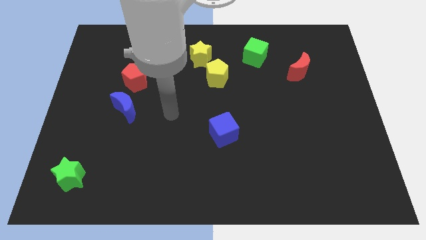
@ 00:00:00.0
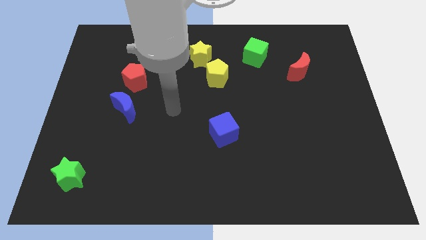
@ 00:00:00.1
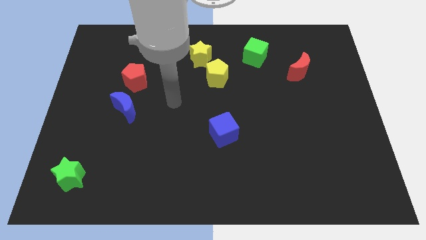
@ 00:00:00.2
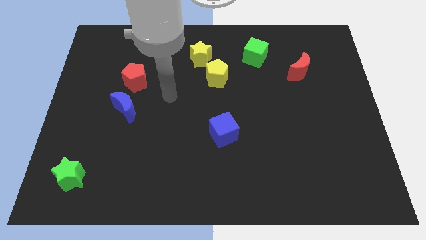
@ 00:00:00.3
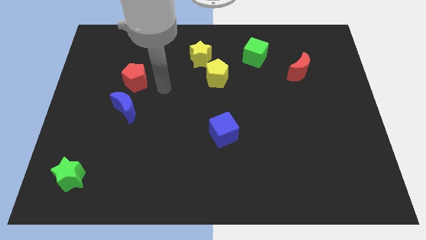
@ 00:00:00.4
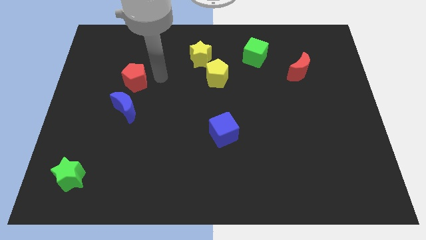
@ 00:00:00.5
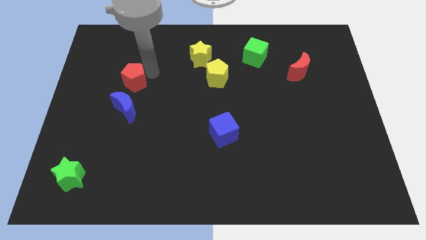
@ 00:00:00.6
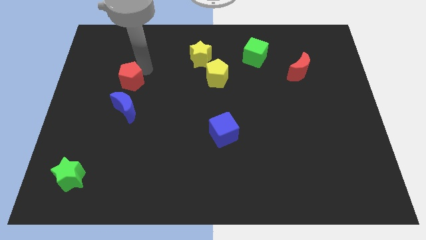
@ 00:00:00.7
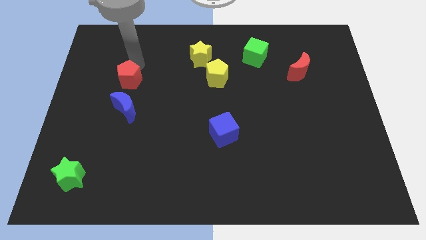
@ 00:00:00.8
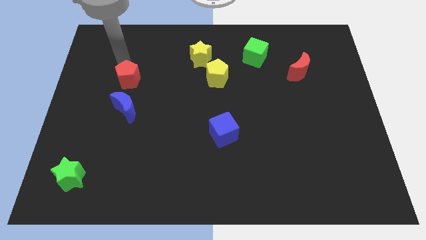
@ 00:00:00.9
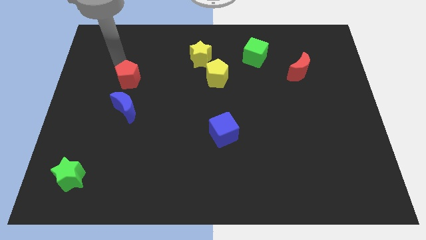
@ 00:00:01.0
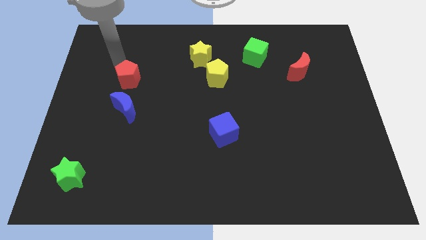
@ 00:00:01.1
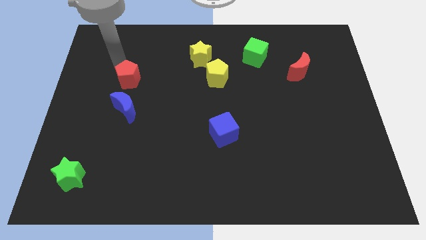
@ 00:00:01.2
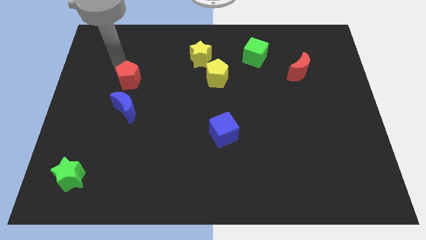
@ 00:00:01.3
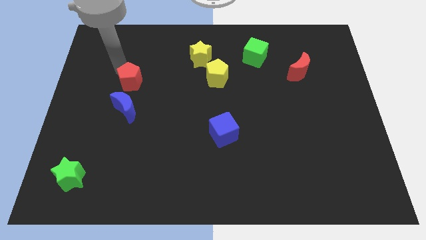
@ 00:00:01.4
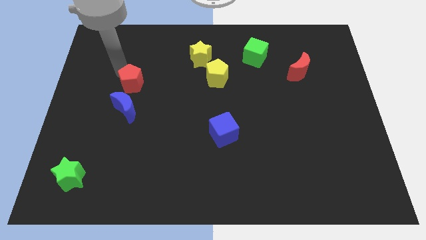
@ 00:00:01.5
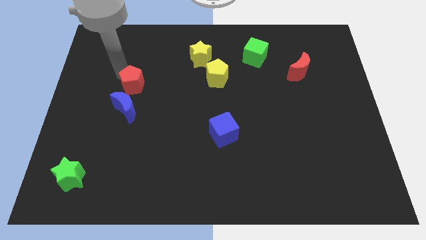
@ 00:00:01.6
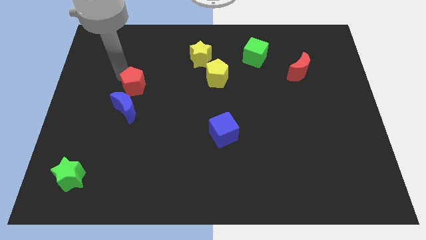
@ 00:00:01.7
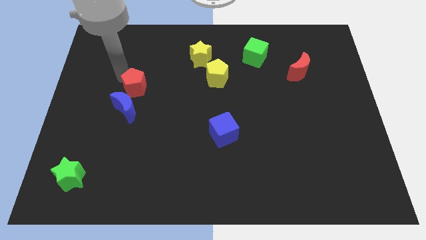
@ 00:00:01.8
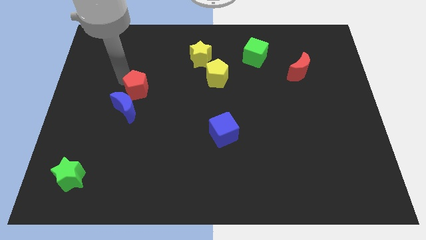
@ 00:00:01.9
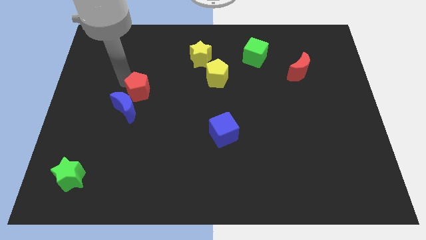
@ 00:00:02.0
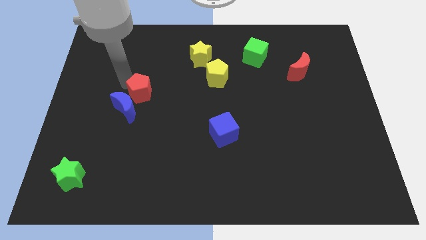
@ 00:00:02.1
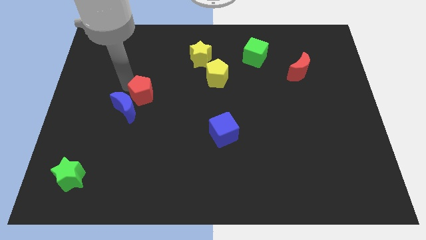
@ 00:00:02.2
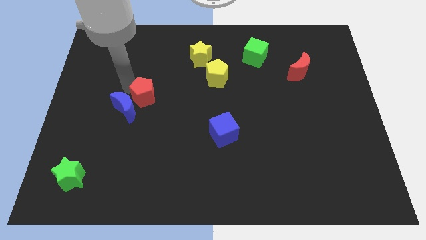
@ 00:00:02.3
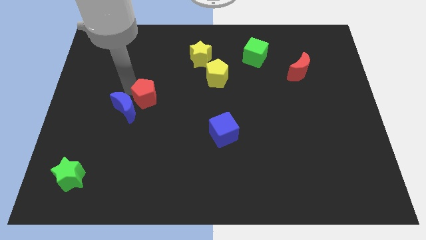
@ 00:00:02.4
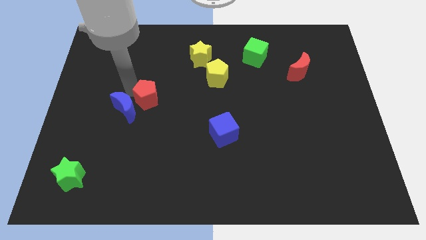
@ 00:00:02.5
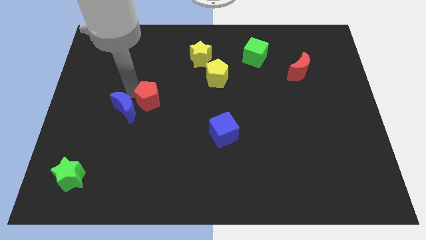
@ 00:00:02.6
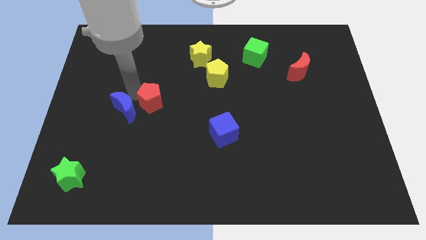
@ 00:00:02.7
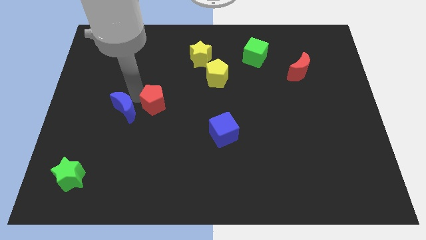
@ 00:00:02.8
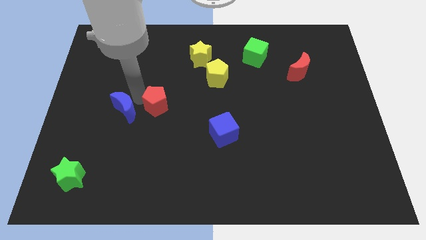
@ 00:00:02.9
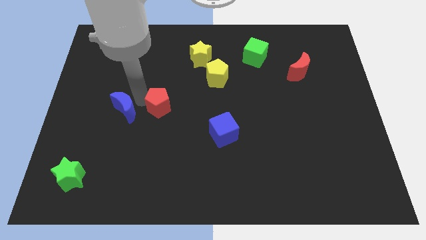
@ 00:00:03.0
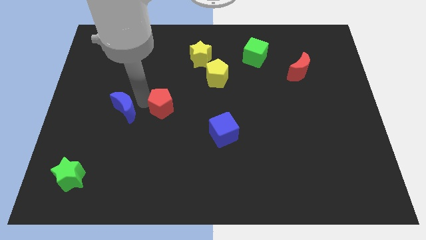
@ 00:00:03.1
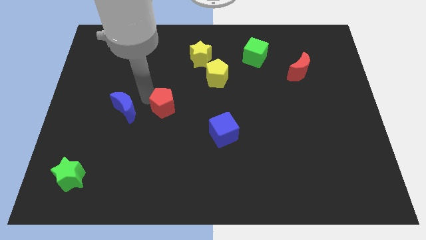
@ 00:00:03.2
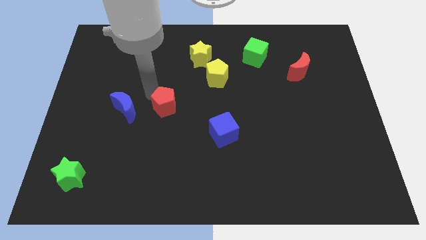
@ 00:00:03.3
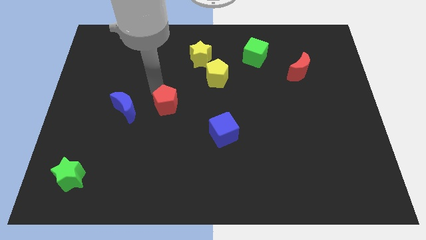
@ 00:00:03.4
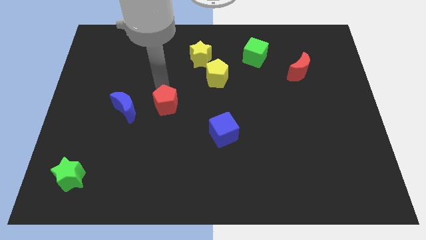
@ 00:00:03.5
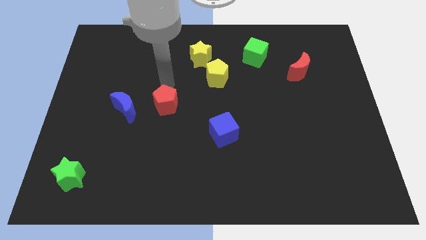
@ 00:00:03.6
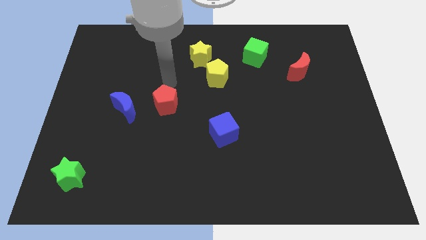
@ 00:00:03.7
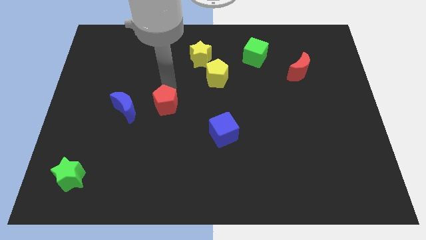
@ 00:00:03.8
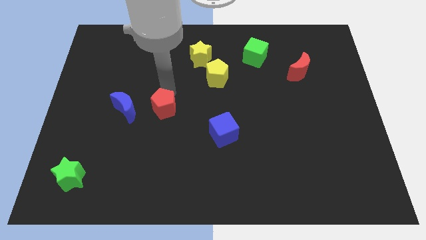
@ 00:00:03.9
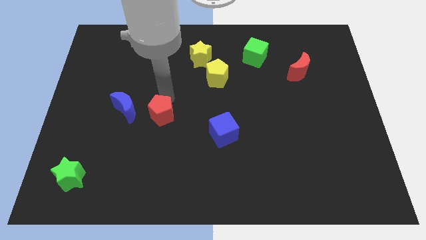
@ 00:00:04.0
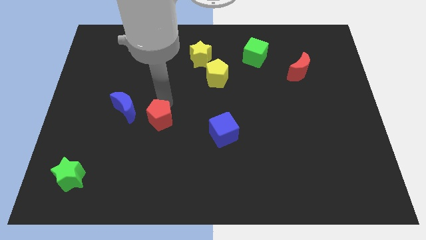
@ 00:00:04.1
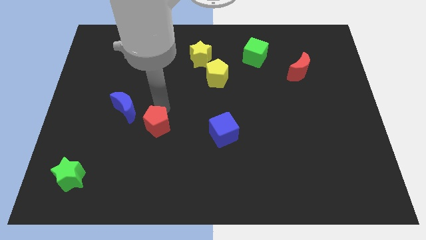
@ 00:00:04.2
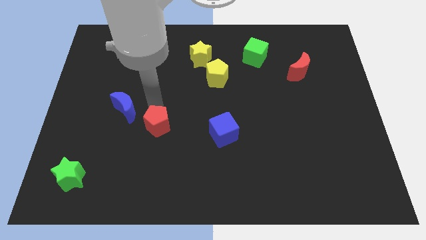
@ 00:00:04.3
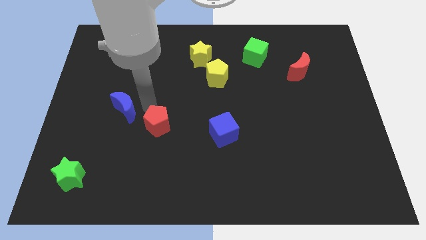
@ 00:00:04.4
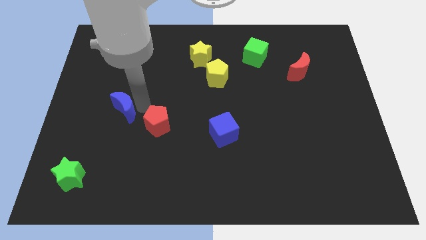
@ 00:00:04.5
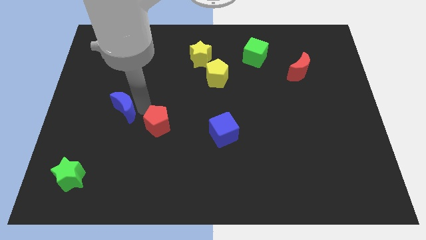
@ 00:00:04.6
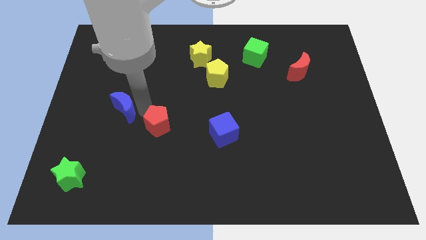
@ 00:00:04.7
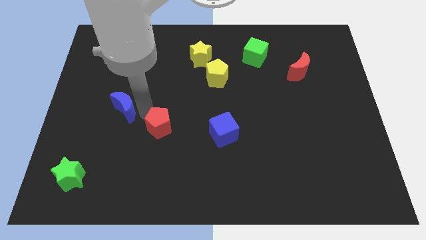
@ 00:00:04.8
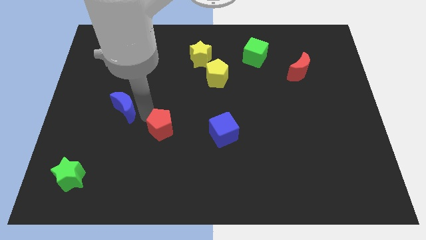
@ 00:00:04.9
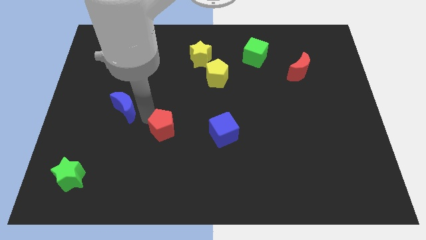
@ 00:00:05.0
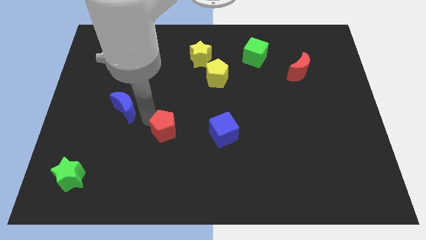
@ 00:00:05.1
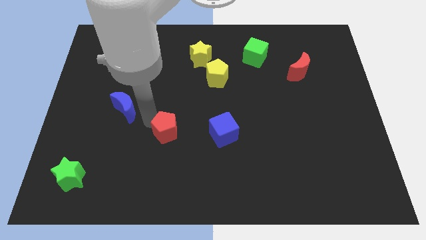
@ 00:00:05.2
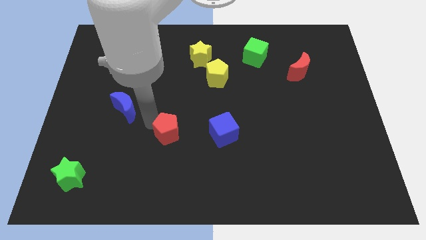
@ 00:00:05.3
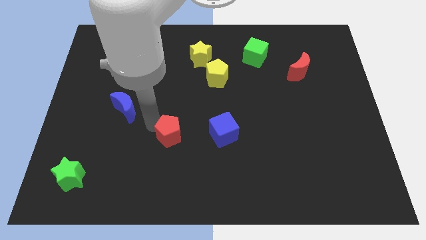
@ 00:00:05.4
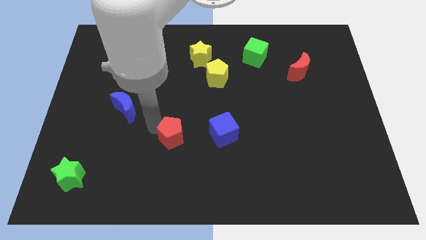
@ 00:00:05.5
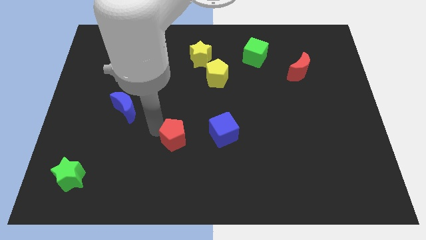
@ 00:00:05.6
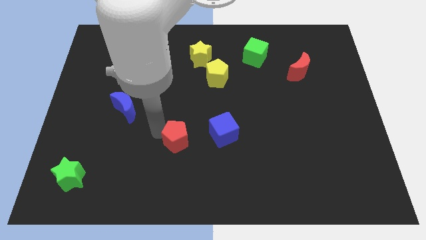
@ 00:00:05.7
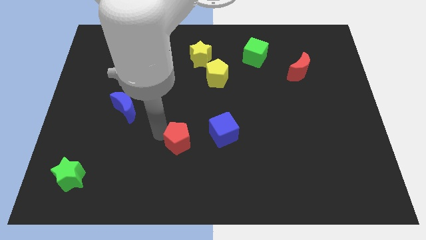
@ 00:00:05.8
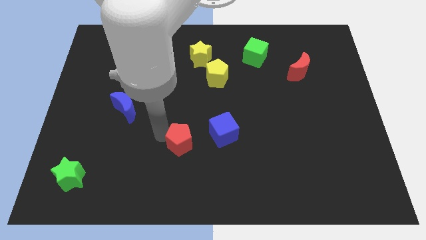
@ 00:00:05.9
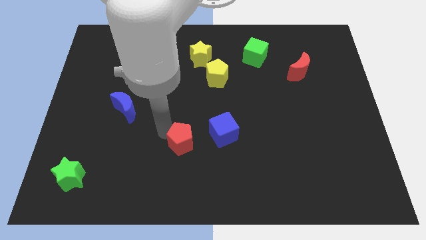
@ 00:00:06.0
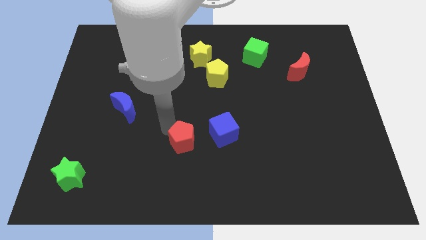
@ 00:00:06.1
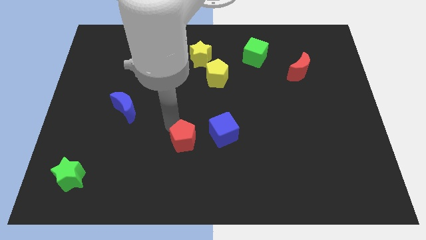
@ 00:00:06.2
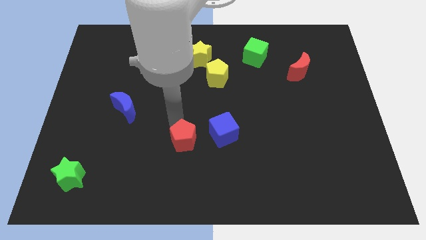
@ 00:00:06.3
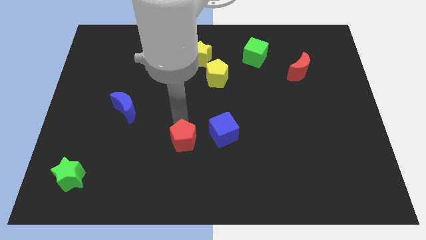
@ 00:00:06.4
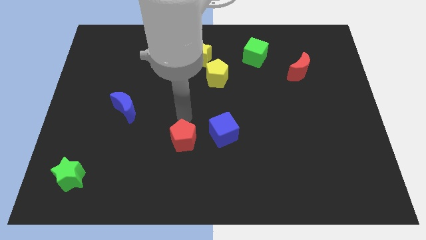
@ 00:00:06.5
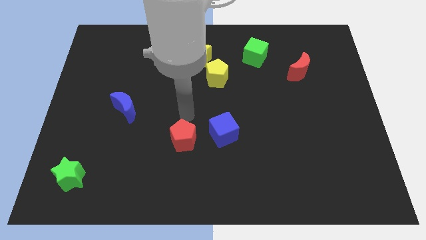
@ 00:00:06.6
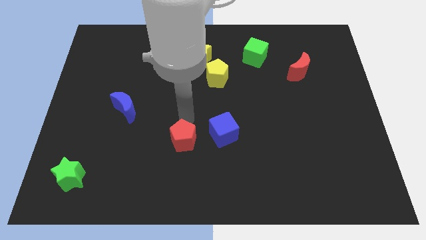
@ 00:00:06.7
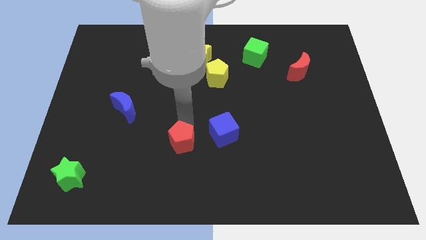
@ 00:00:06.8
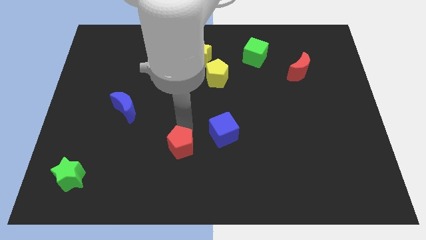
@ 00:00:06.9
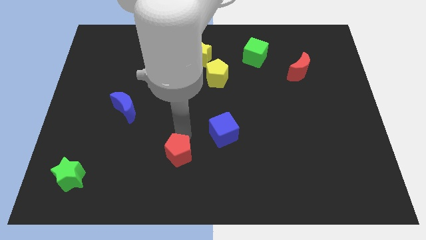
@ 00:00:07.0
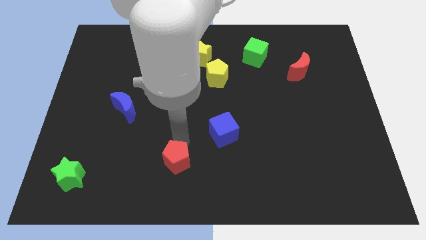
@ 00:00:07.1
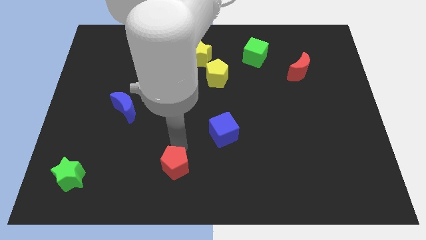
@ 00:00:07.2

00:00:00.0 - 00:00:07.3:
put the red pentagon to the bottom
